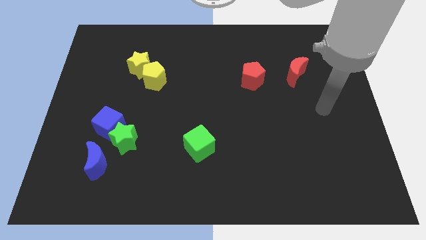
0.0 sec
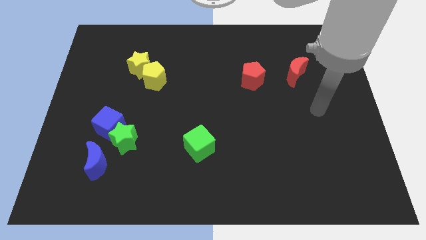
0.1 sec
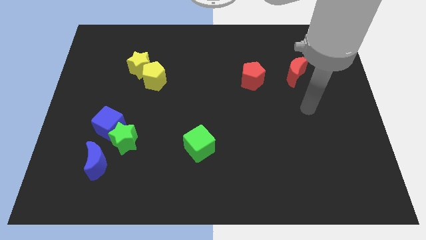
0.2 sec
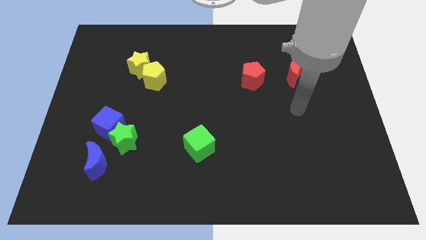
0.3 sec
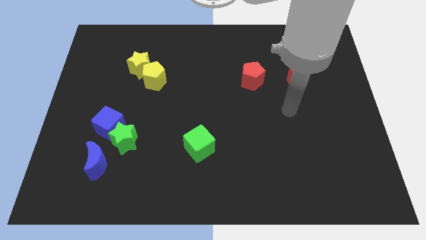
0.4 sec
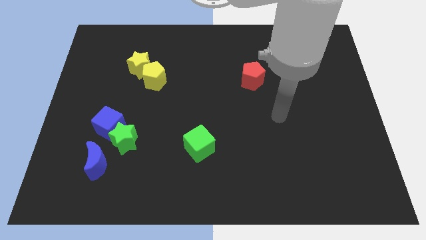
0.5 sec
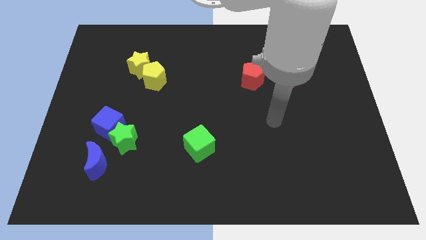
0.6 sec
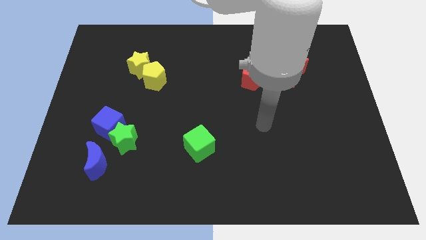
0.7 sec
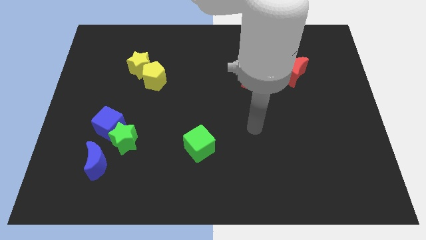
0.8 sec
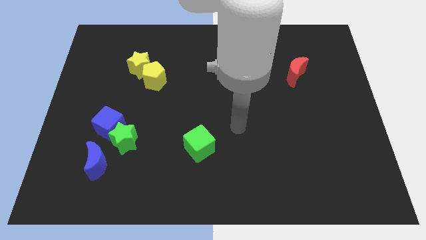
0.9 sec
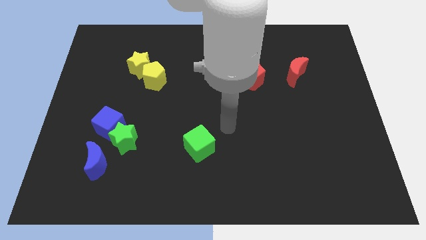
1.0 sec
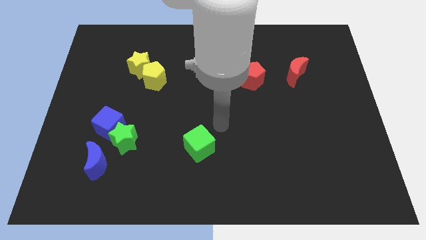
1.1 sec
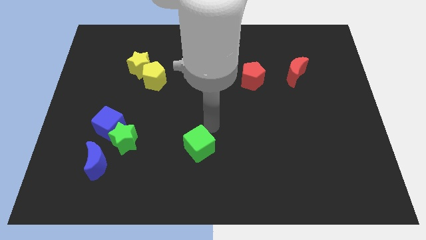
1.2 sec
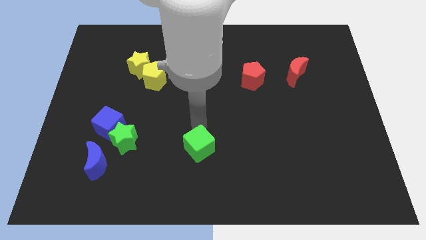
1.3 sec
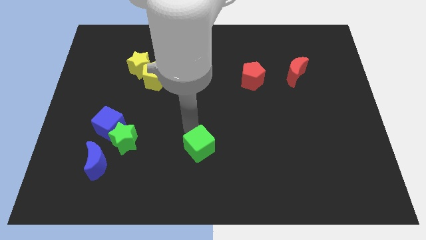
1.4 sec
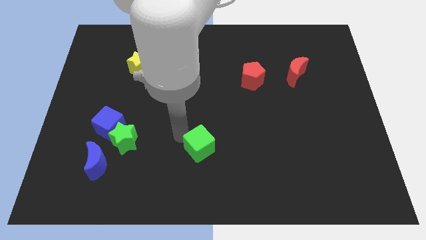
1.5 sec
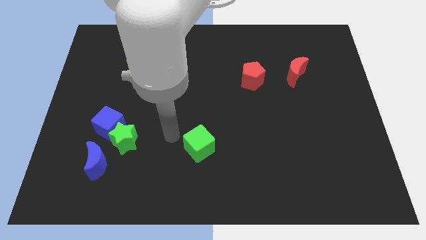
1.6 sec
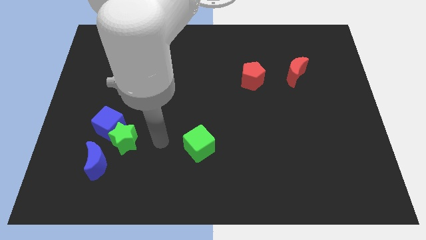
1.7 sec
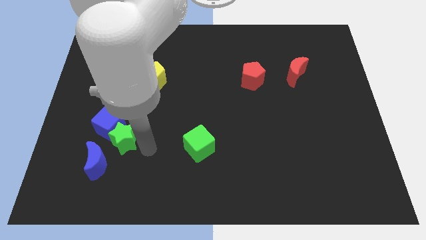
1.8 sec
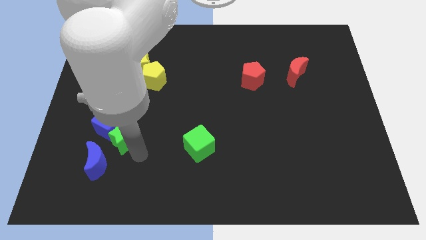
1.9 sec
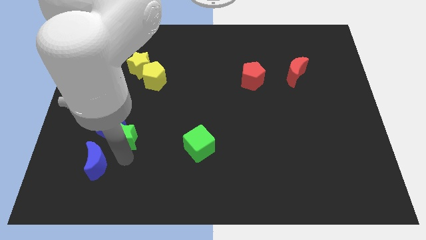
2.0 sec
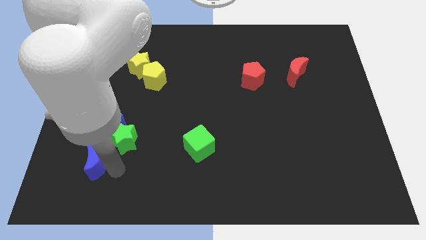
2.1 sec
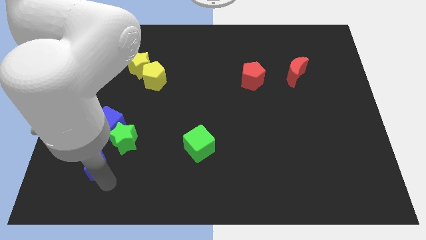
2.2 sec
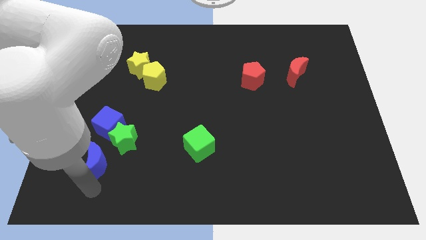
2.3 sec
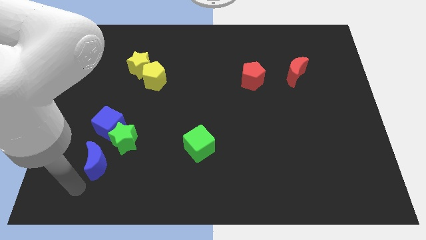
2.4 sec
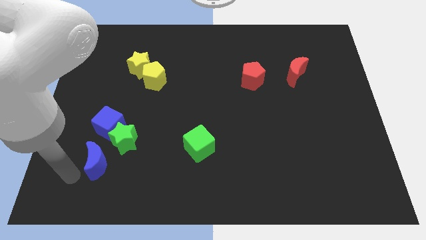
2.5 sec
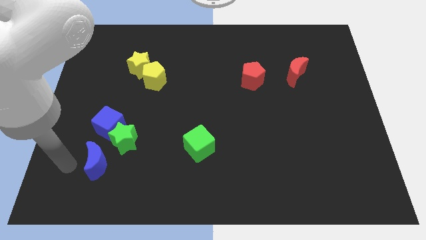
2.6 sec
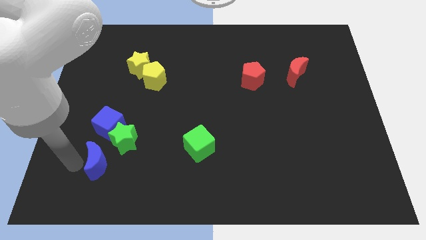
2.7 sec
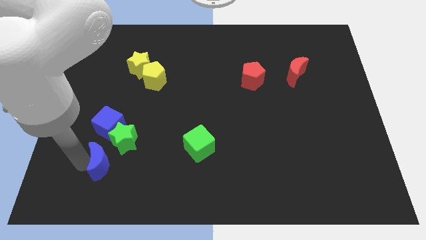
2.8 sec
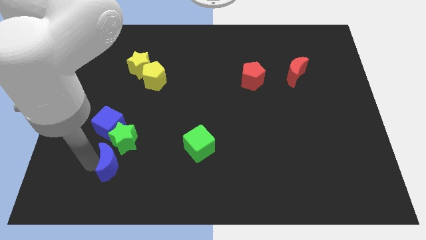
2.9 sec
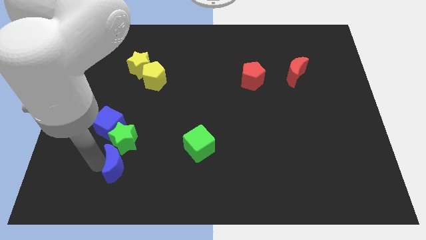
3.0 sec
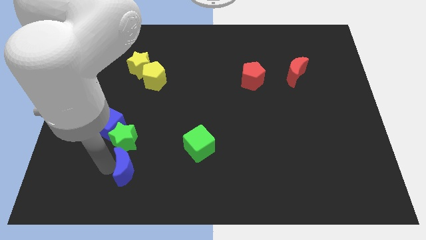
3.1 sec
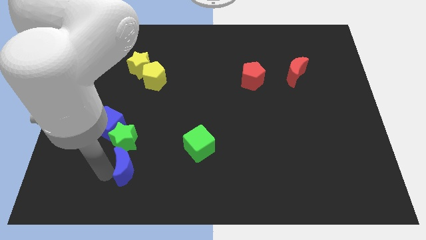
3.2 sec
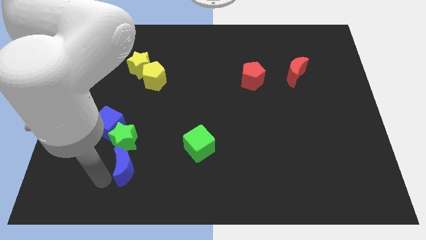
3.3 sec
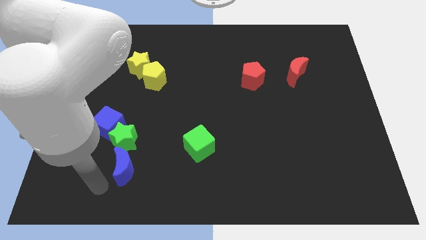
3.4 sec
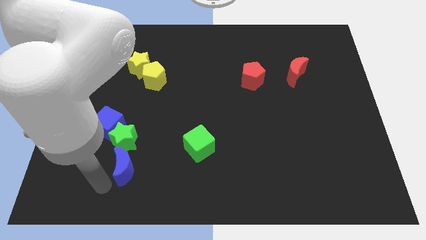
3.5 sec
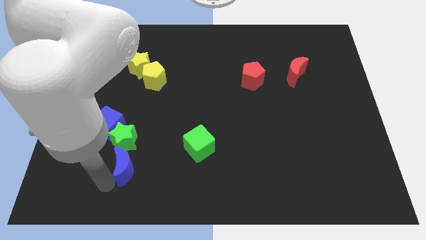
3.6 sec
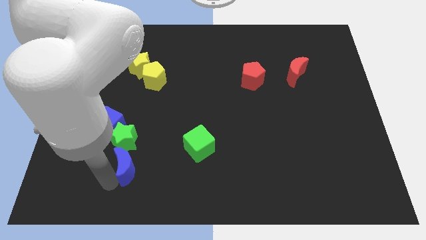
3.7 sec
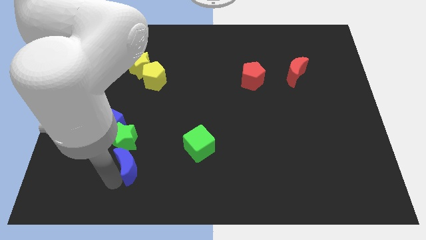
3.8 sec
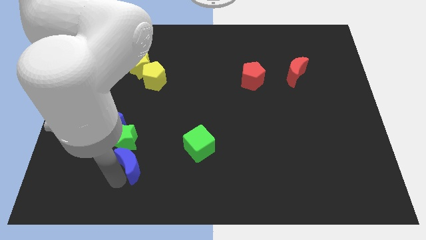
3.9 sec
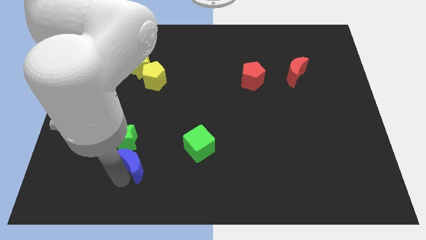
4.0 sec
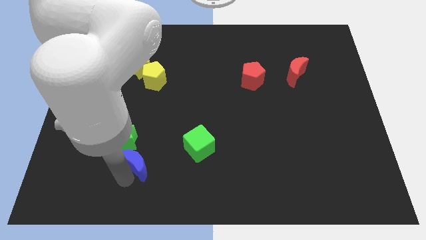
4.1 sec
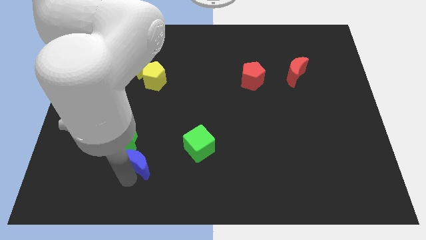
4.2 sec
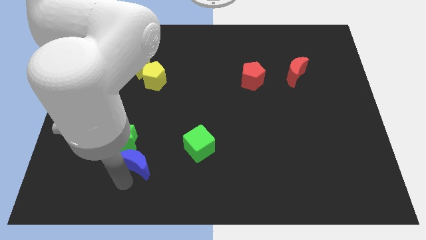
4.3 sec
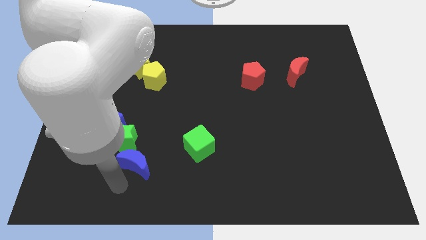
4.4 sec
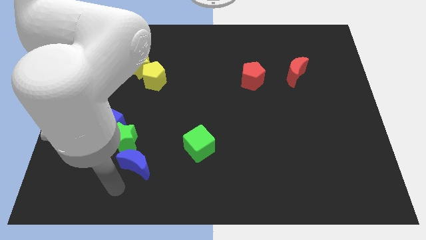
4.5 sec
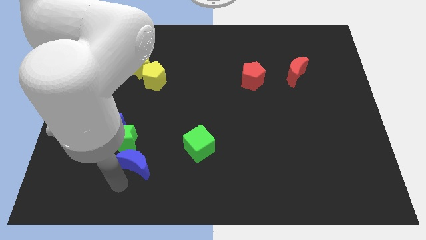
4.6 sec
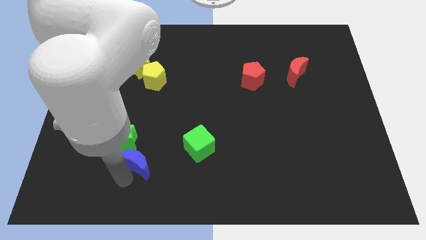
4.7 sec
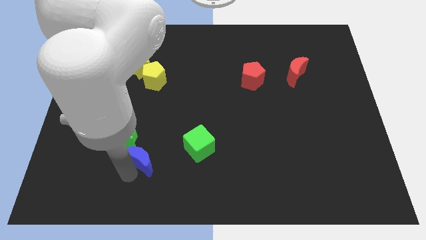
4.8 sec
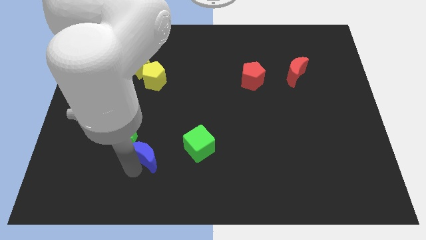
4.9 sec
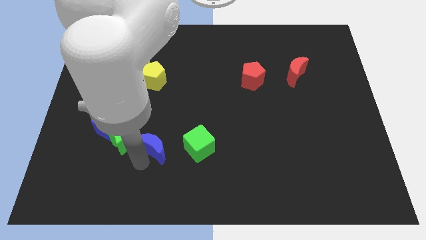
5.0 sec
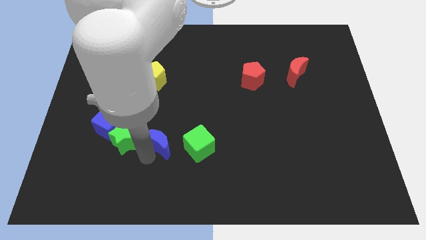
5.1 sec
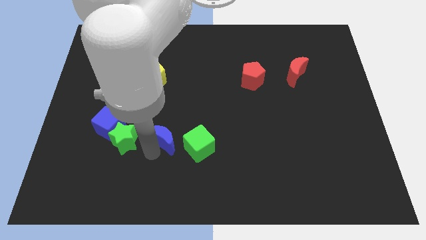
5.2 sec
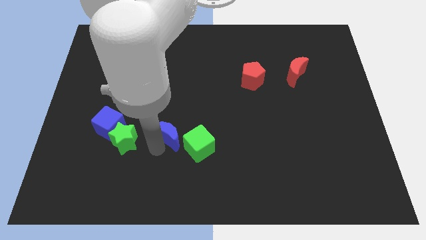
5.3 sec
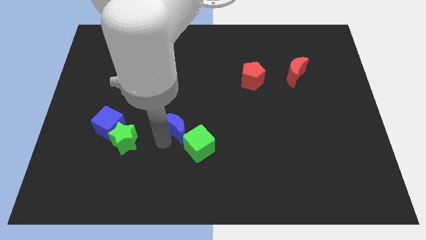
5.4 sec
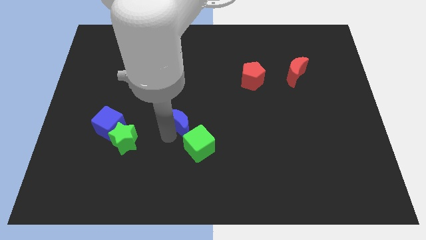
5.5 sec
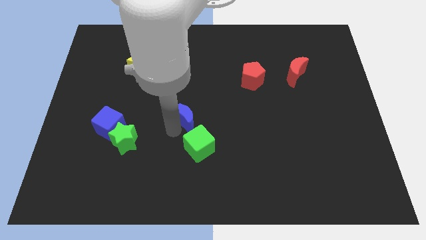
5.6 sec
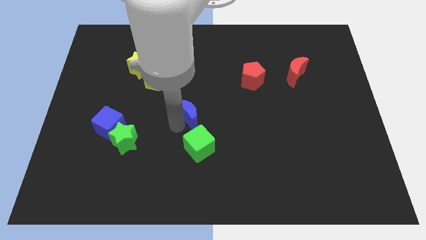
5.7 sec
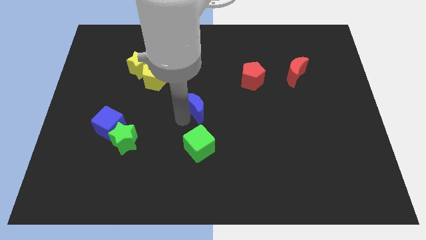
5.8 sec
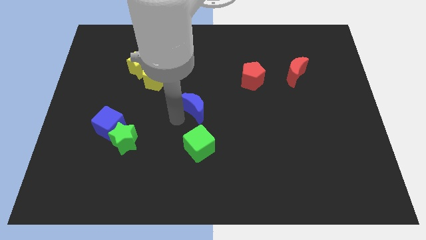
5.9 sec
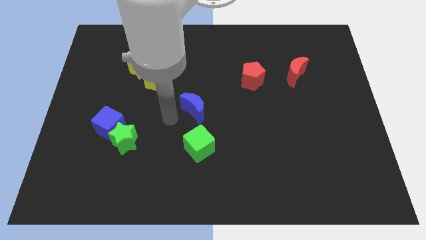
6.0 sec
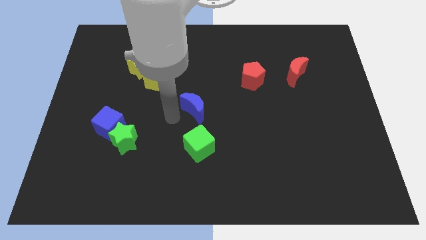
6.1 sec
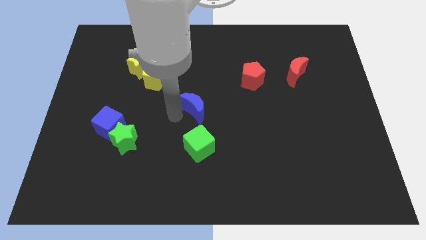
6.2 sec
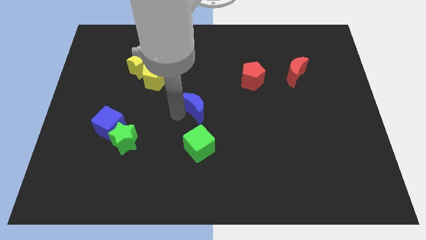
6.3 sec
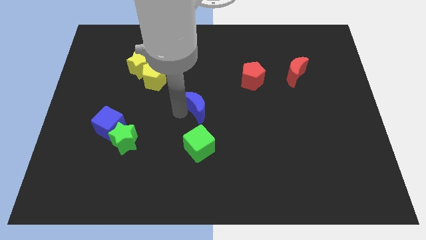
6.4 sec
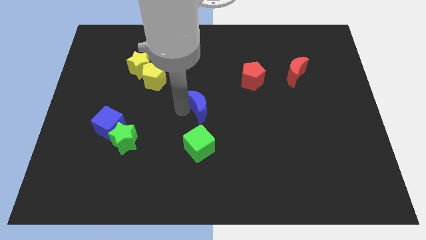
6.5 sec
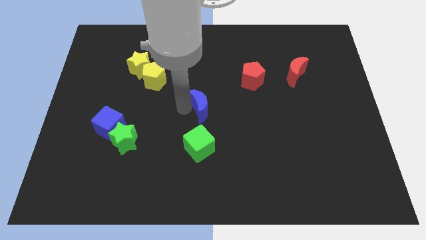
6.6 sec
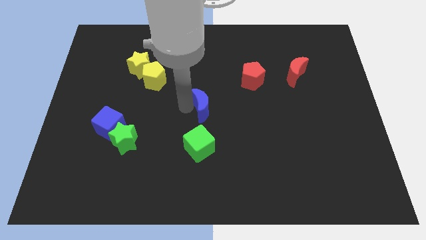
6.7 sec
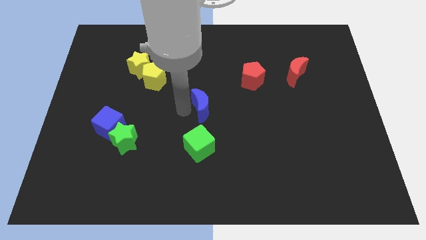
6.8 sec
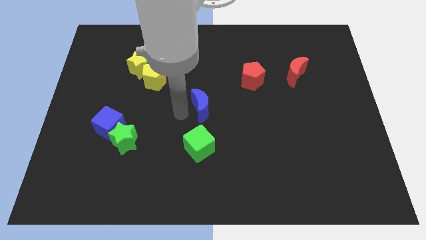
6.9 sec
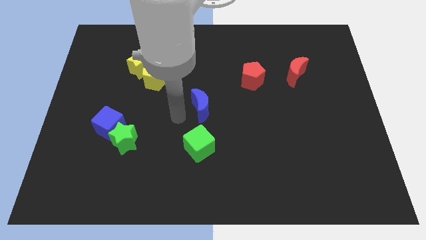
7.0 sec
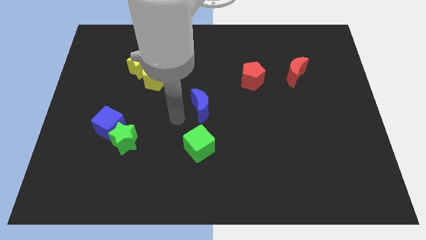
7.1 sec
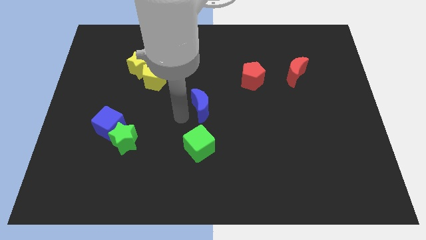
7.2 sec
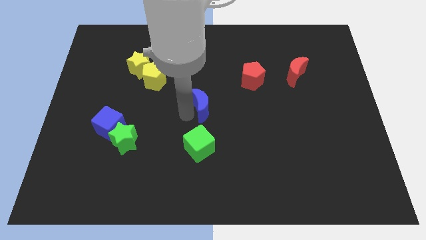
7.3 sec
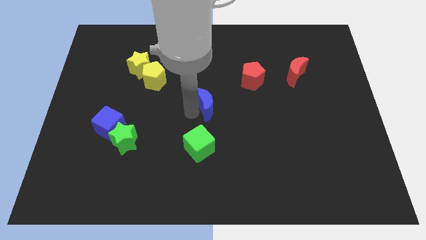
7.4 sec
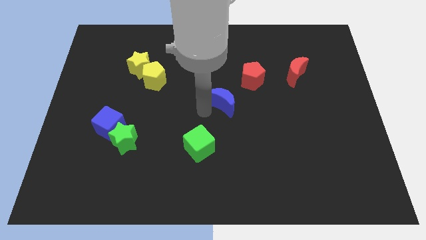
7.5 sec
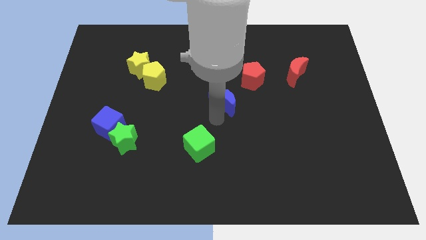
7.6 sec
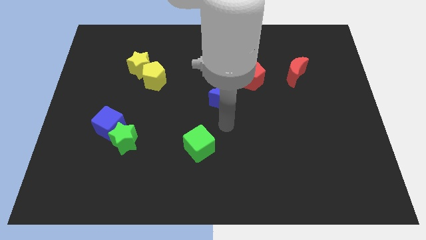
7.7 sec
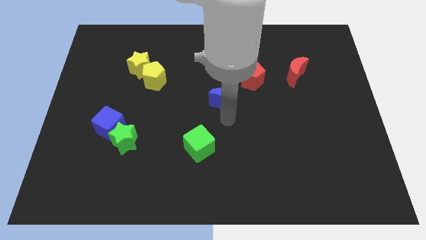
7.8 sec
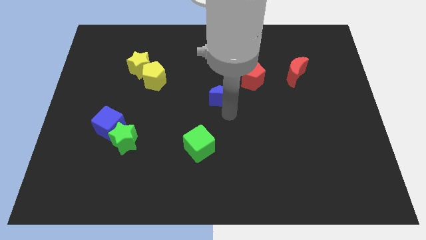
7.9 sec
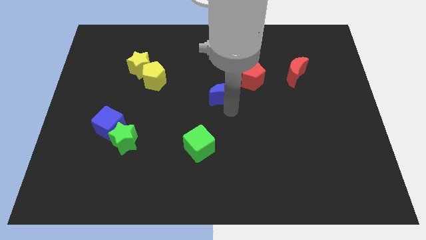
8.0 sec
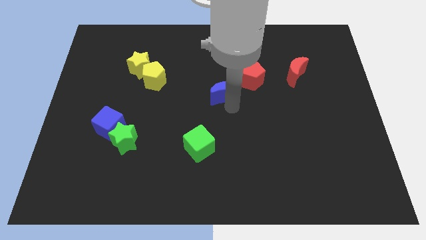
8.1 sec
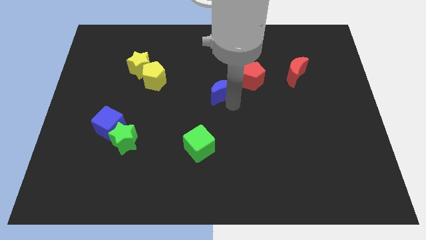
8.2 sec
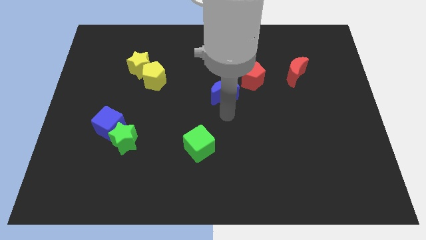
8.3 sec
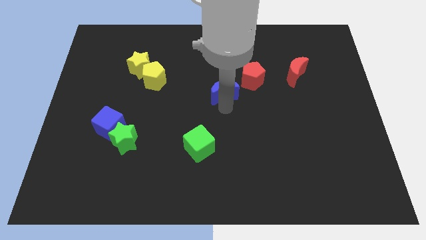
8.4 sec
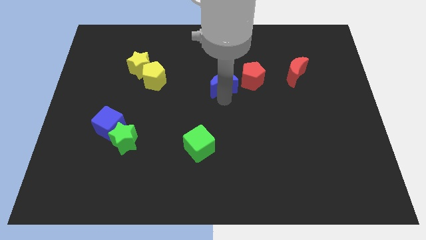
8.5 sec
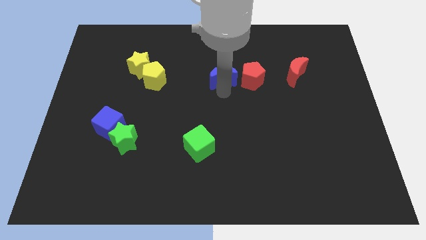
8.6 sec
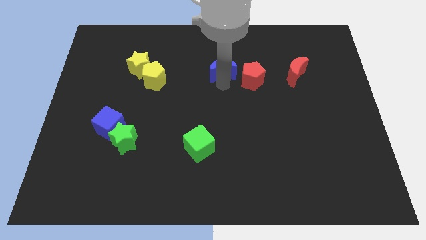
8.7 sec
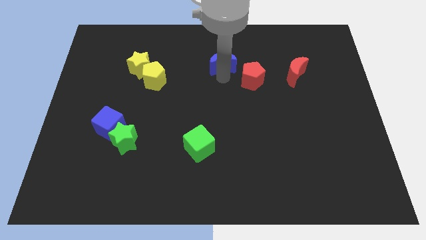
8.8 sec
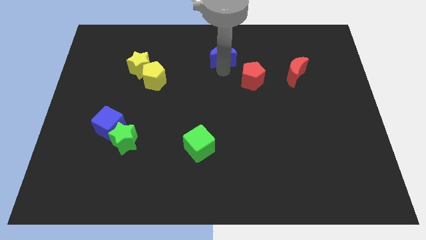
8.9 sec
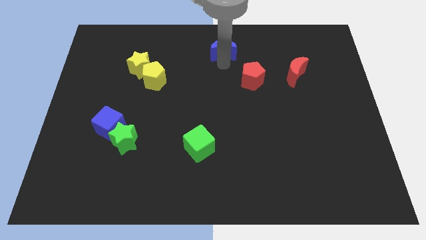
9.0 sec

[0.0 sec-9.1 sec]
push the blue moon to the top side
